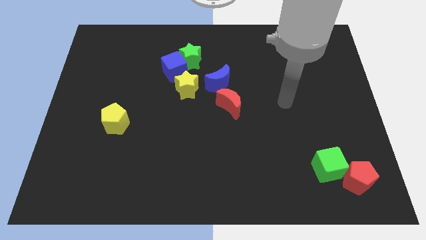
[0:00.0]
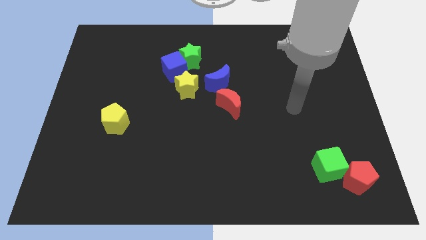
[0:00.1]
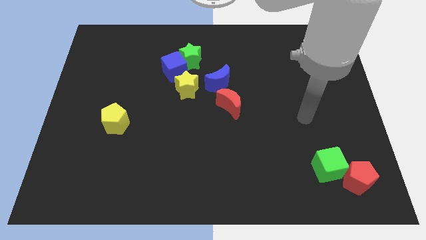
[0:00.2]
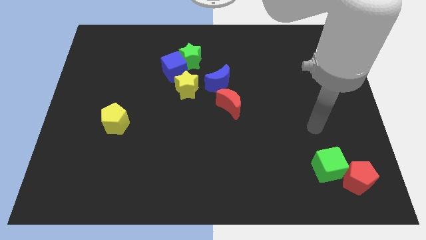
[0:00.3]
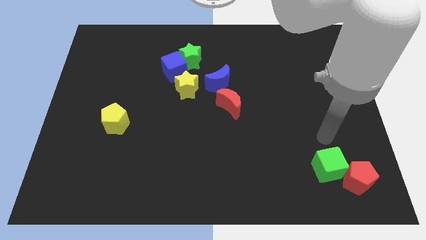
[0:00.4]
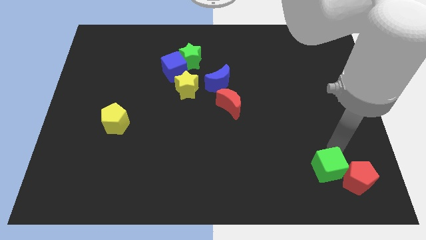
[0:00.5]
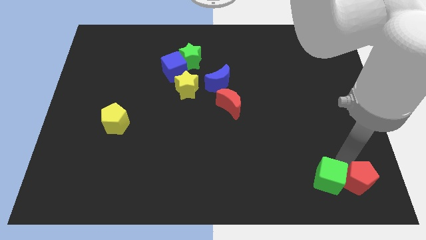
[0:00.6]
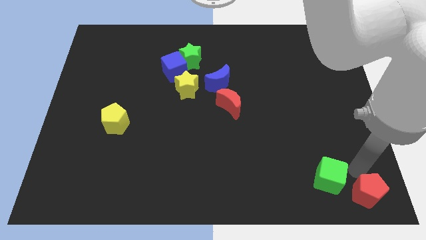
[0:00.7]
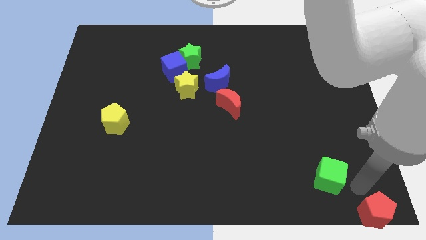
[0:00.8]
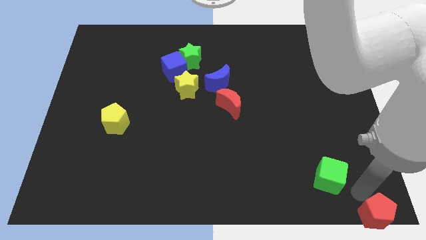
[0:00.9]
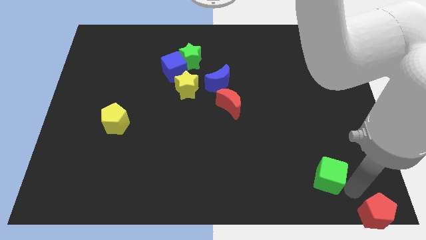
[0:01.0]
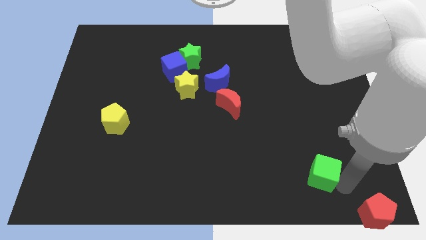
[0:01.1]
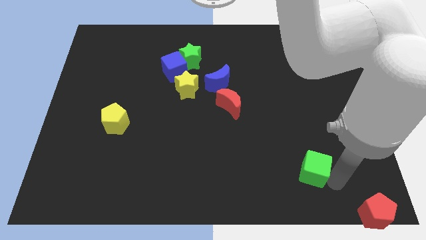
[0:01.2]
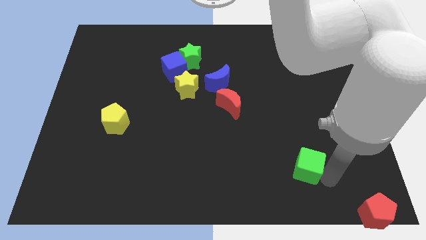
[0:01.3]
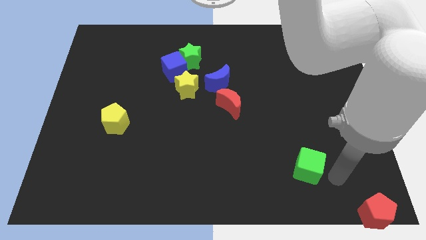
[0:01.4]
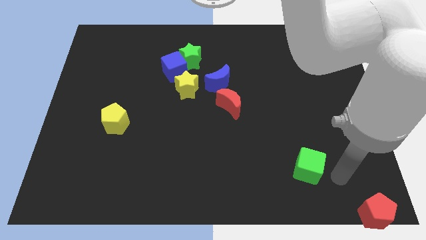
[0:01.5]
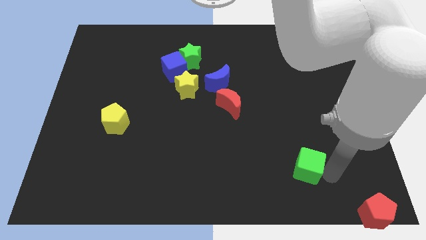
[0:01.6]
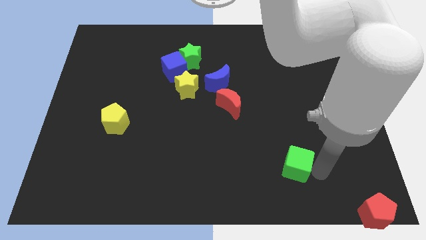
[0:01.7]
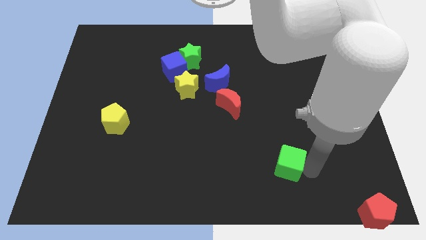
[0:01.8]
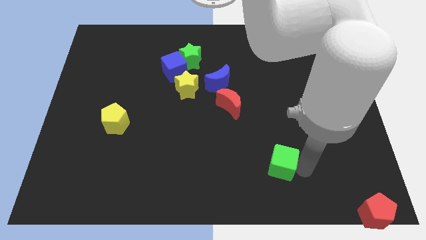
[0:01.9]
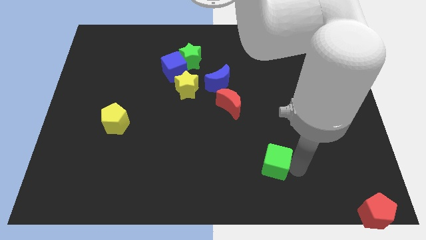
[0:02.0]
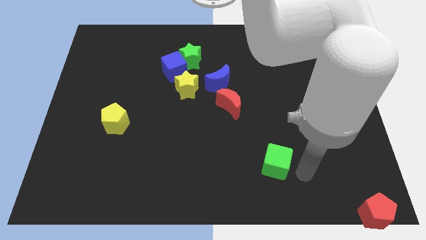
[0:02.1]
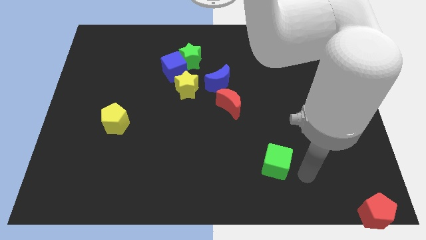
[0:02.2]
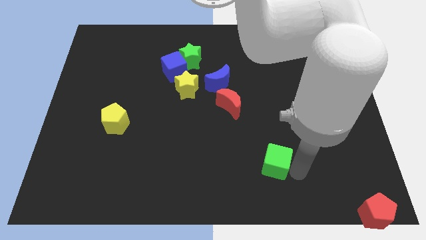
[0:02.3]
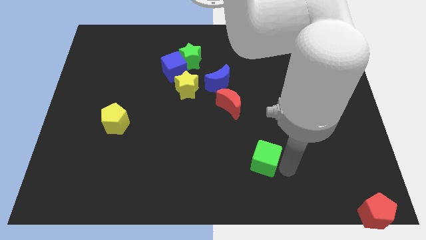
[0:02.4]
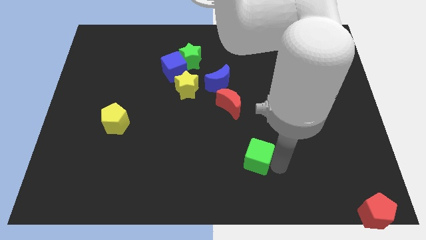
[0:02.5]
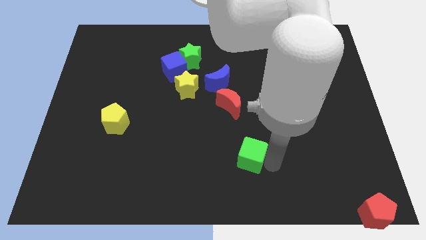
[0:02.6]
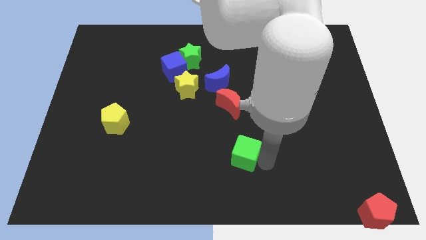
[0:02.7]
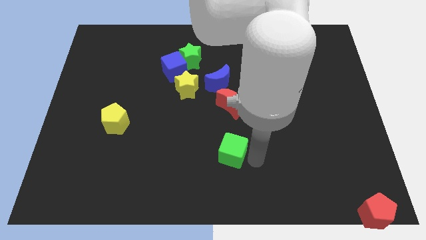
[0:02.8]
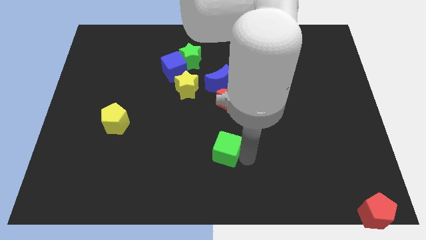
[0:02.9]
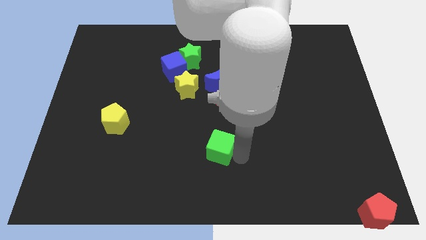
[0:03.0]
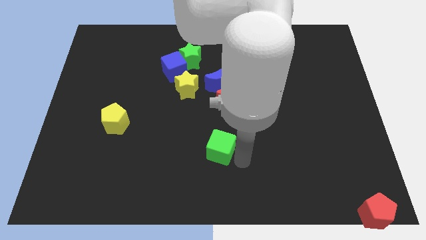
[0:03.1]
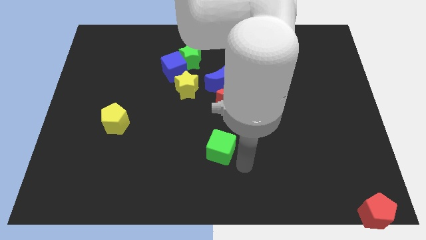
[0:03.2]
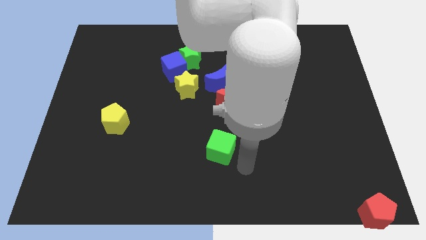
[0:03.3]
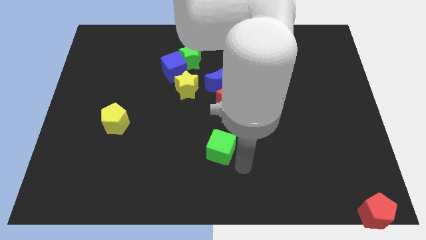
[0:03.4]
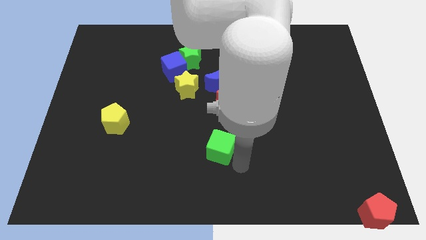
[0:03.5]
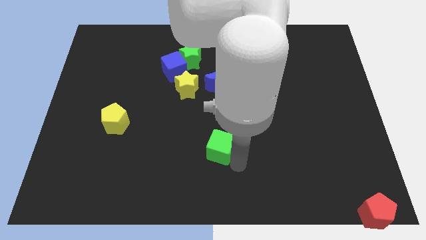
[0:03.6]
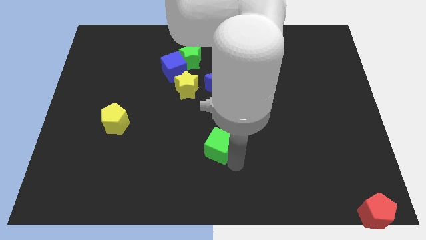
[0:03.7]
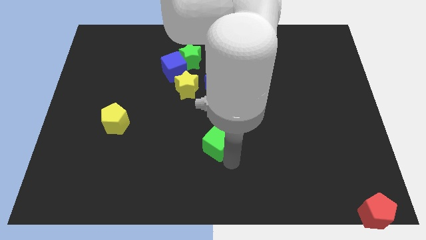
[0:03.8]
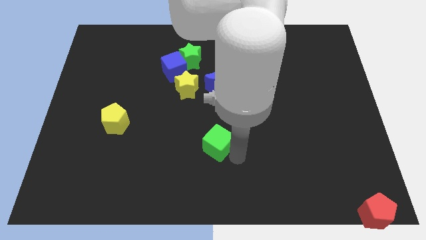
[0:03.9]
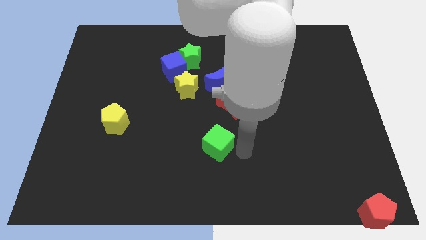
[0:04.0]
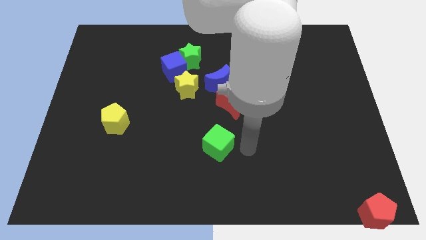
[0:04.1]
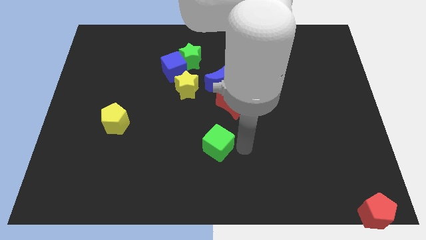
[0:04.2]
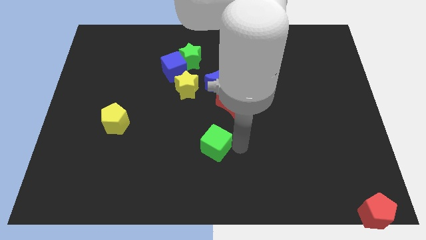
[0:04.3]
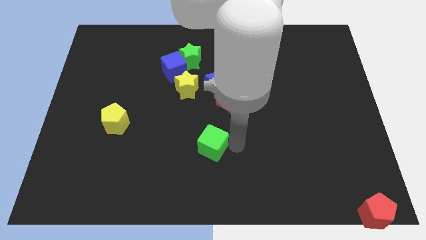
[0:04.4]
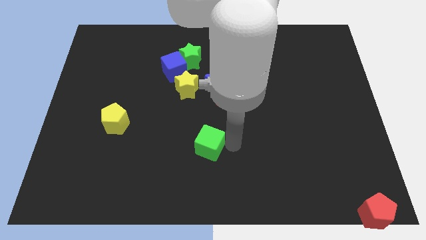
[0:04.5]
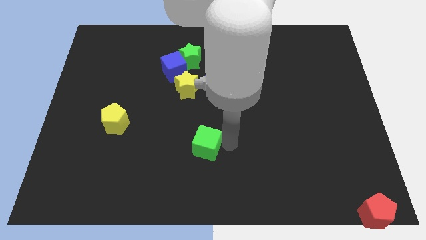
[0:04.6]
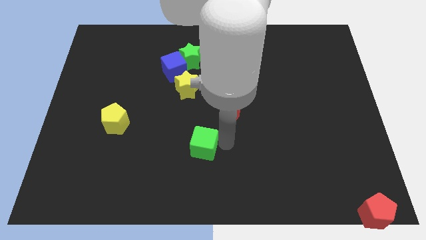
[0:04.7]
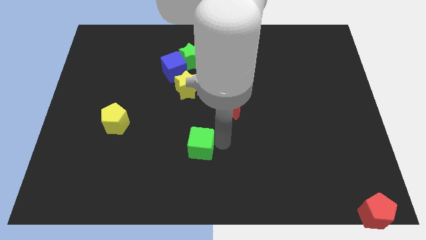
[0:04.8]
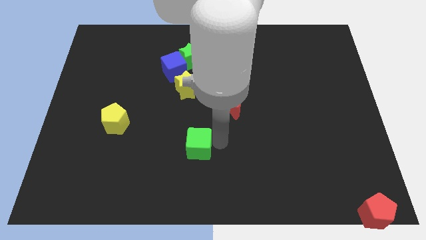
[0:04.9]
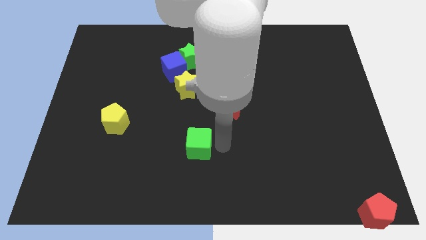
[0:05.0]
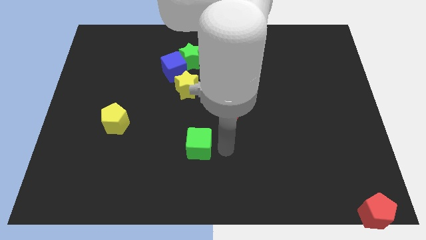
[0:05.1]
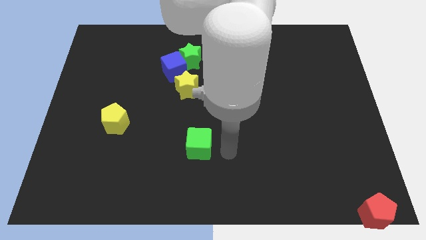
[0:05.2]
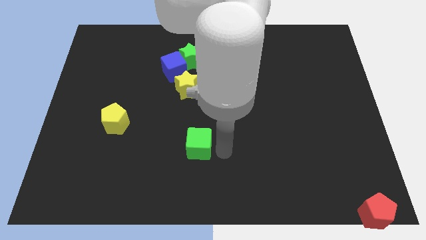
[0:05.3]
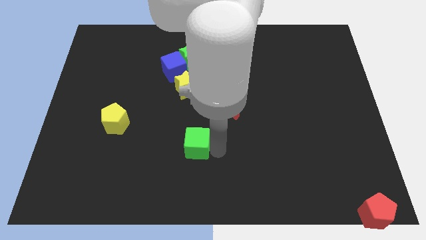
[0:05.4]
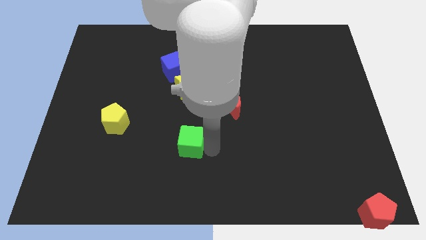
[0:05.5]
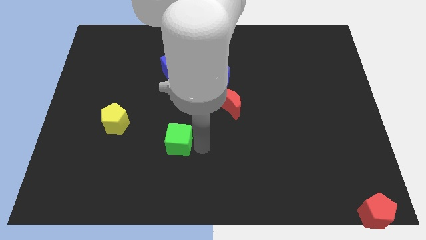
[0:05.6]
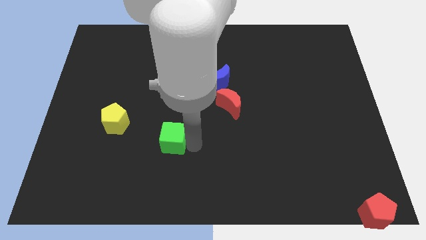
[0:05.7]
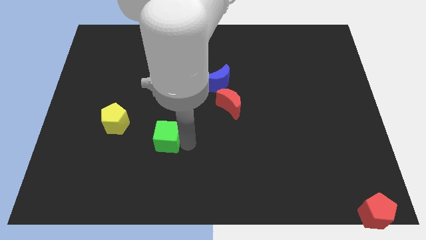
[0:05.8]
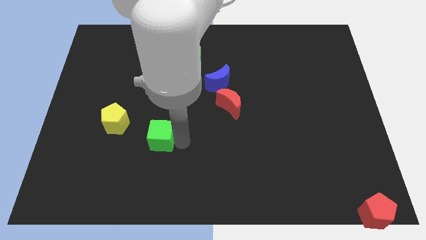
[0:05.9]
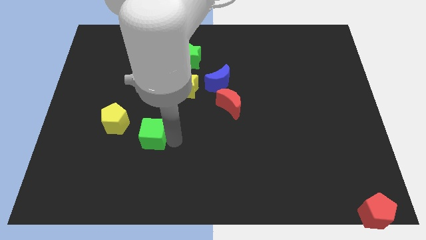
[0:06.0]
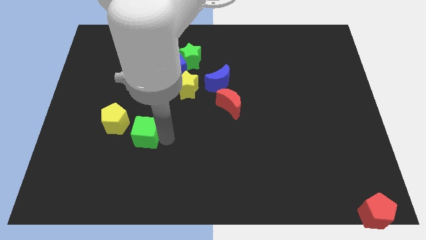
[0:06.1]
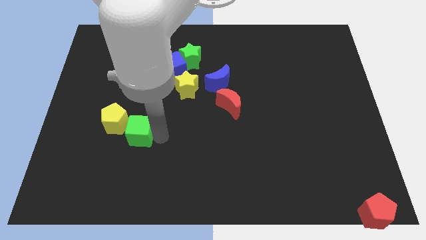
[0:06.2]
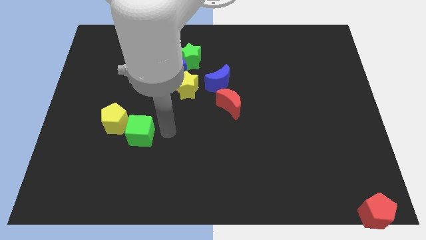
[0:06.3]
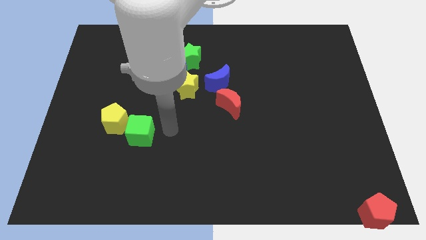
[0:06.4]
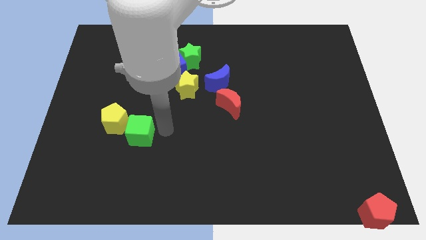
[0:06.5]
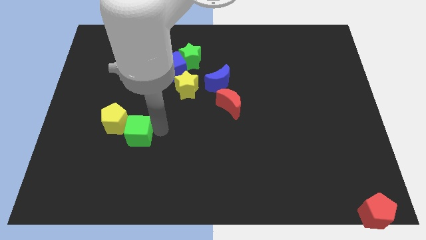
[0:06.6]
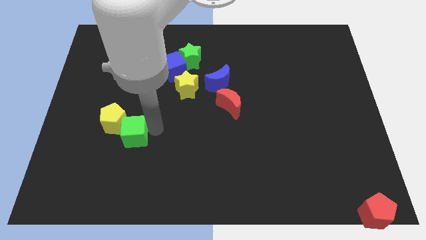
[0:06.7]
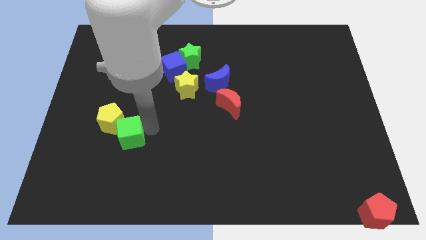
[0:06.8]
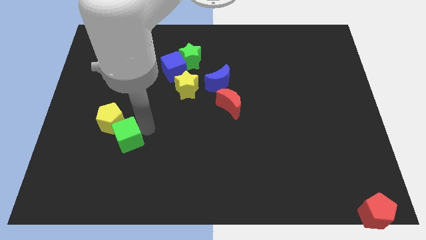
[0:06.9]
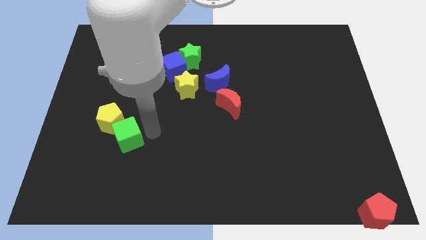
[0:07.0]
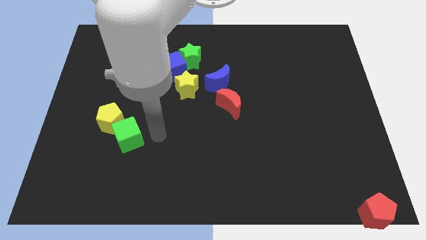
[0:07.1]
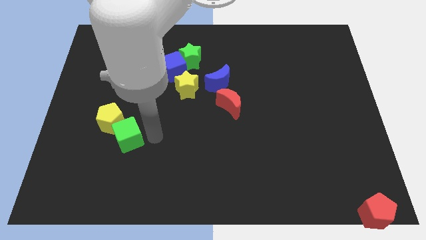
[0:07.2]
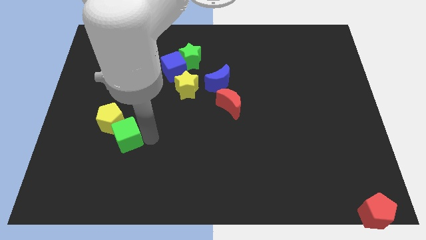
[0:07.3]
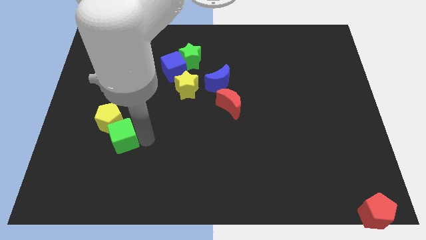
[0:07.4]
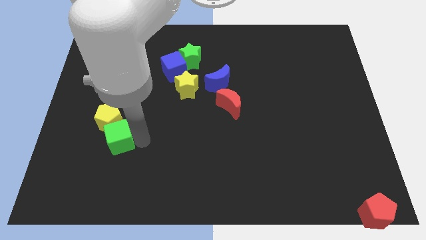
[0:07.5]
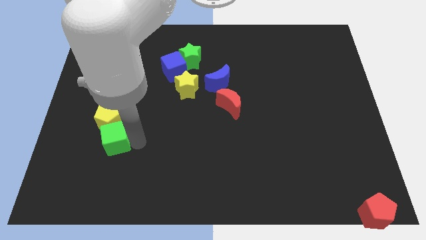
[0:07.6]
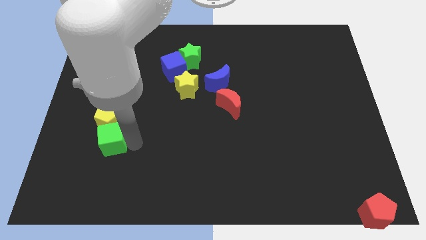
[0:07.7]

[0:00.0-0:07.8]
push the green cube to the bottom left side of the yellow pentagon
